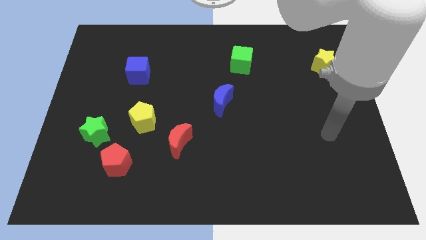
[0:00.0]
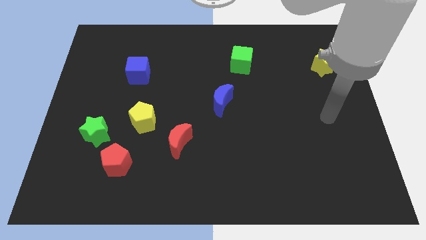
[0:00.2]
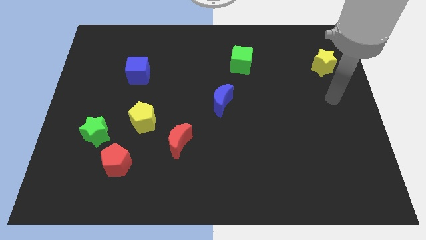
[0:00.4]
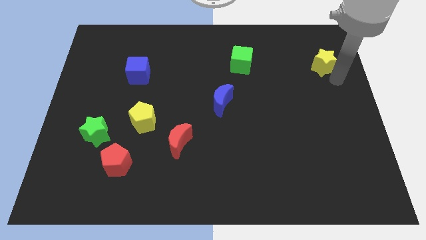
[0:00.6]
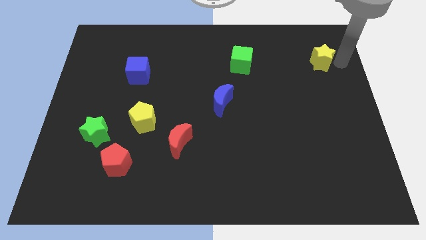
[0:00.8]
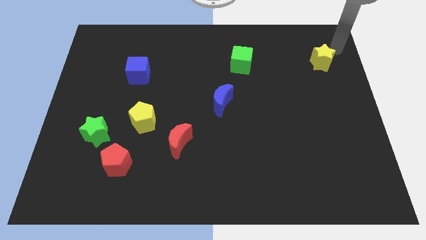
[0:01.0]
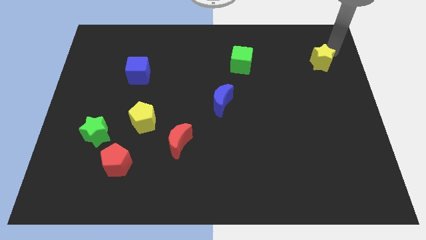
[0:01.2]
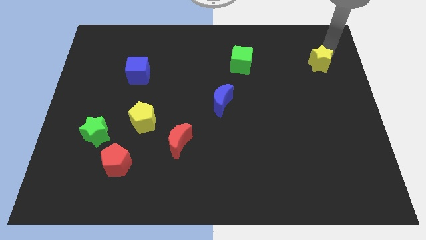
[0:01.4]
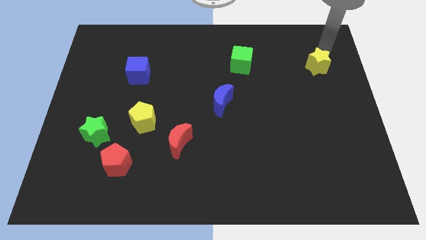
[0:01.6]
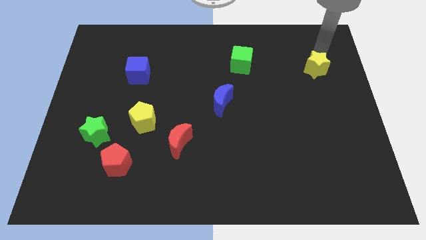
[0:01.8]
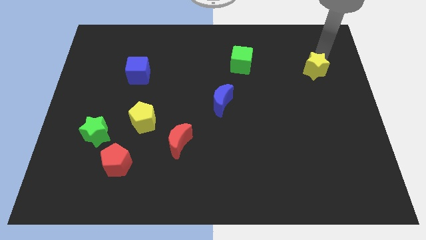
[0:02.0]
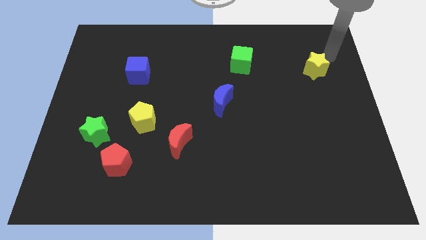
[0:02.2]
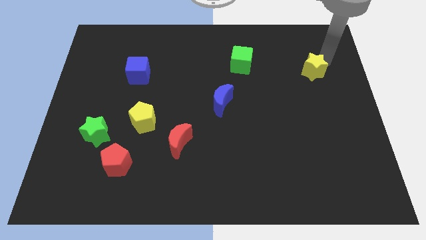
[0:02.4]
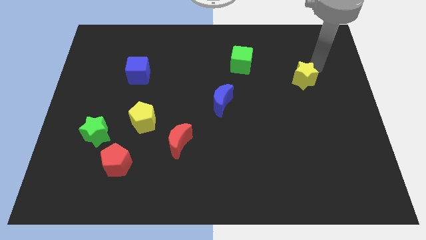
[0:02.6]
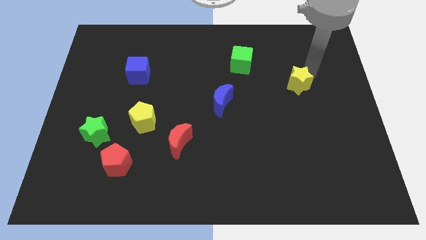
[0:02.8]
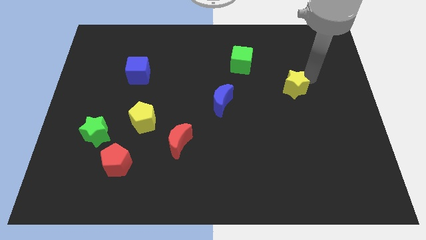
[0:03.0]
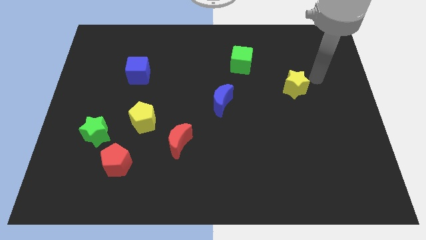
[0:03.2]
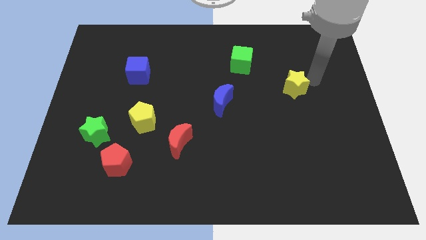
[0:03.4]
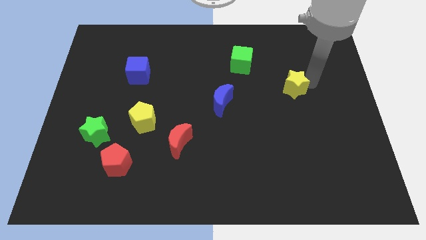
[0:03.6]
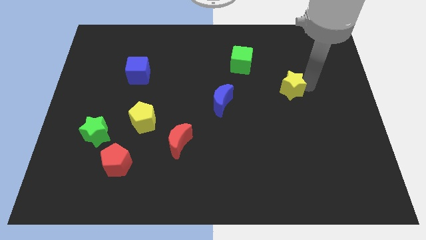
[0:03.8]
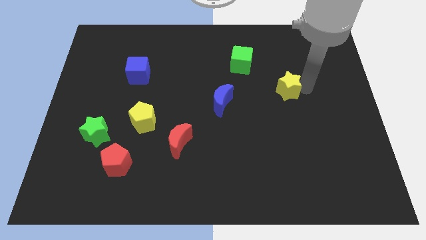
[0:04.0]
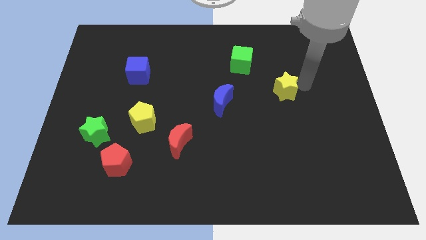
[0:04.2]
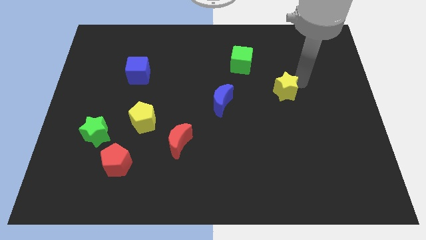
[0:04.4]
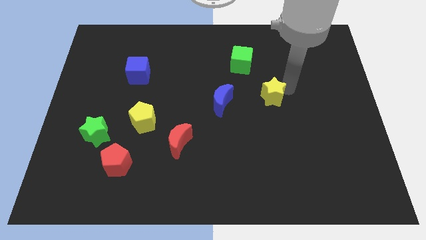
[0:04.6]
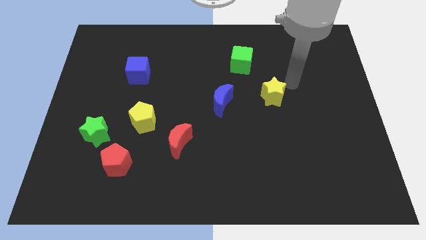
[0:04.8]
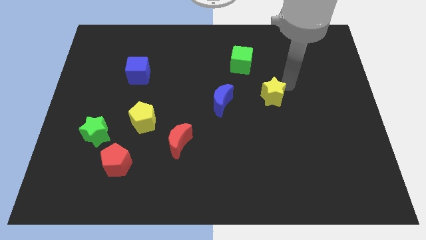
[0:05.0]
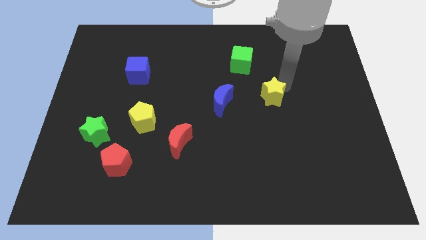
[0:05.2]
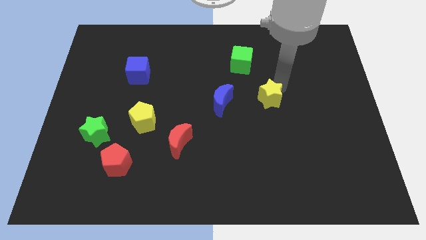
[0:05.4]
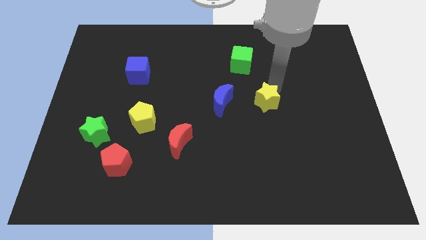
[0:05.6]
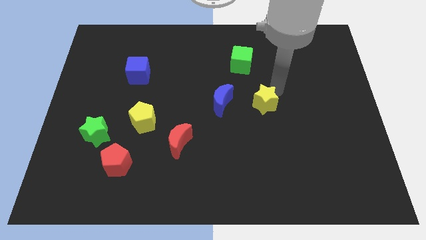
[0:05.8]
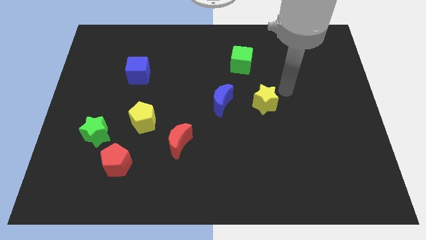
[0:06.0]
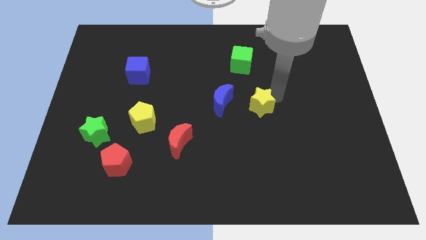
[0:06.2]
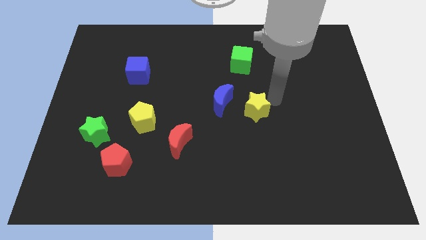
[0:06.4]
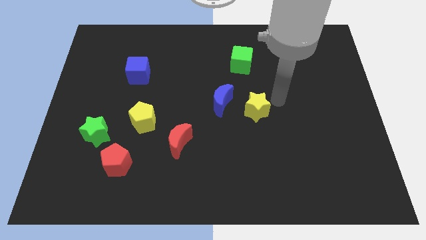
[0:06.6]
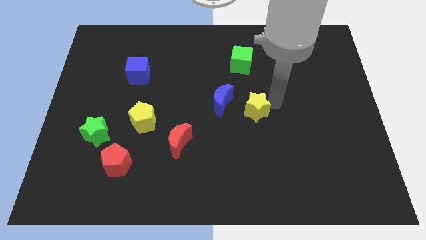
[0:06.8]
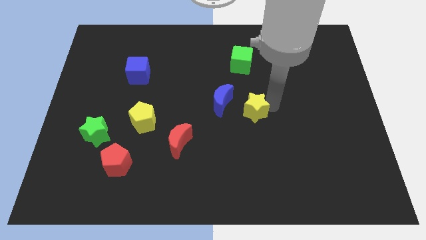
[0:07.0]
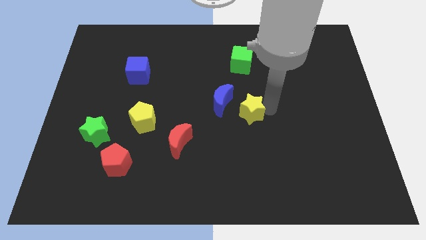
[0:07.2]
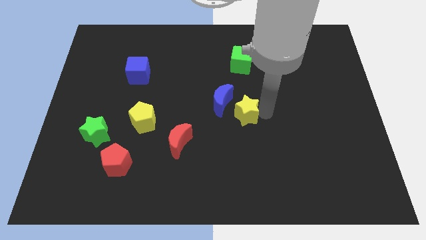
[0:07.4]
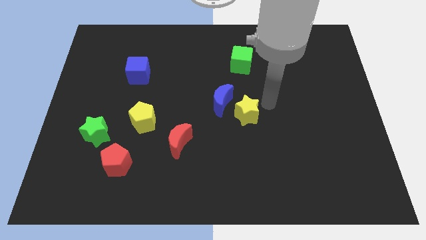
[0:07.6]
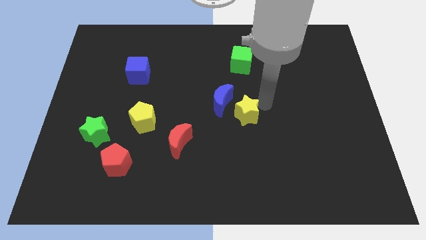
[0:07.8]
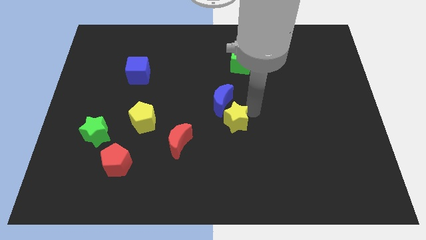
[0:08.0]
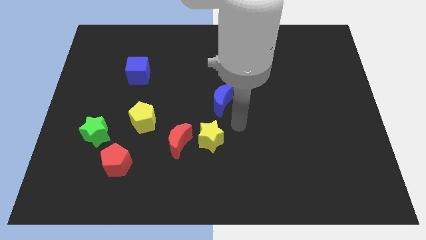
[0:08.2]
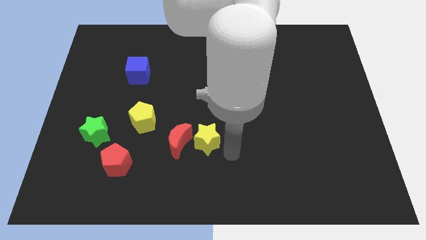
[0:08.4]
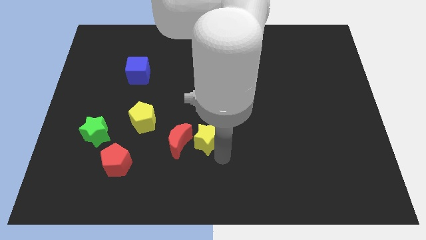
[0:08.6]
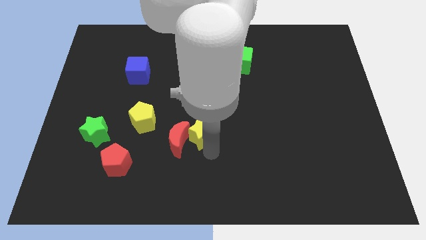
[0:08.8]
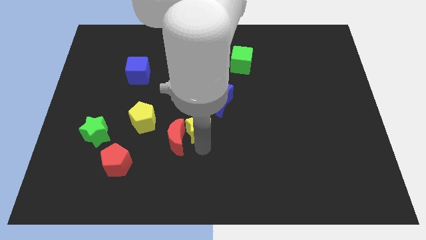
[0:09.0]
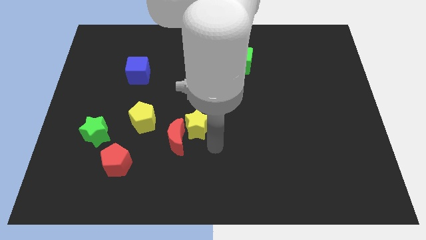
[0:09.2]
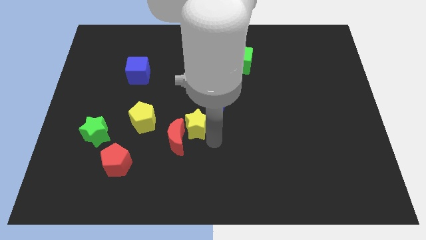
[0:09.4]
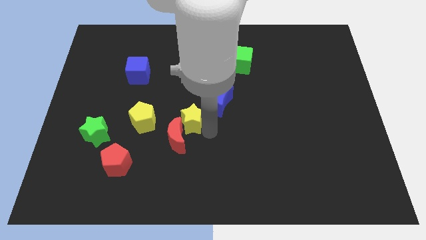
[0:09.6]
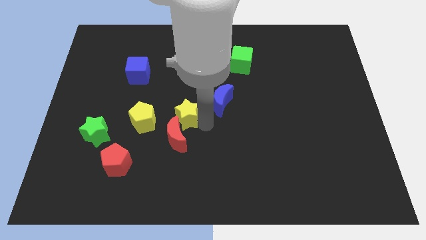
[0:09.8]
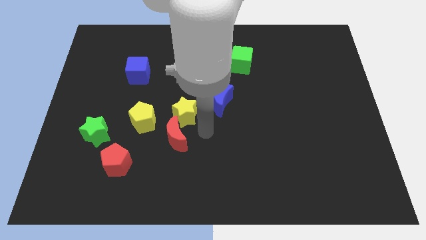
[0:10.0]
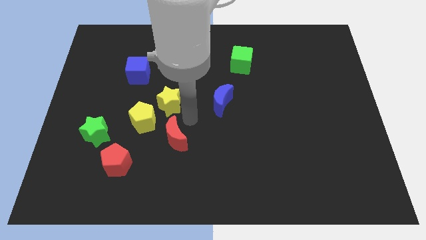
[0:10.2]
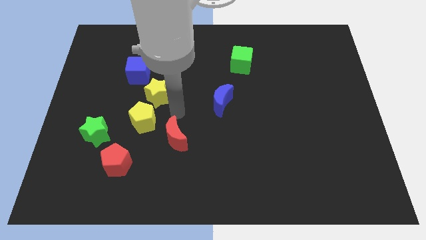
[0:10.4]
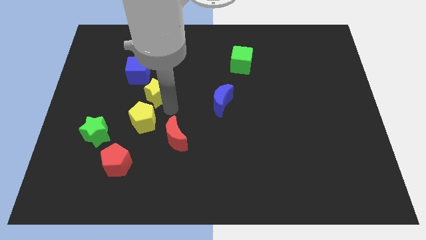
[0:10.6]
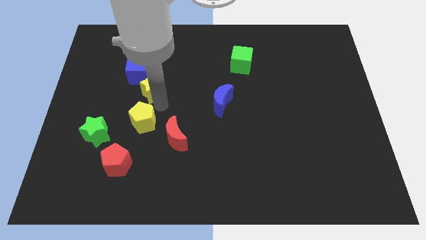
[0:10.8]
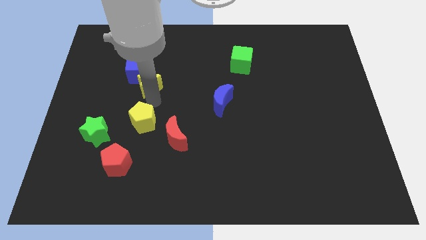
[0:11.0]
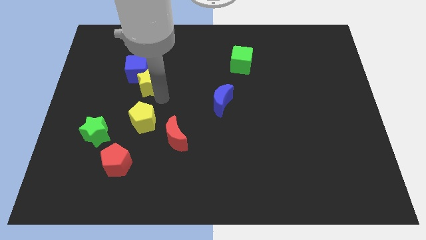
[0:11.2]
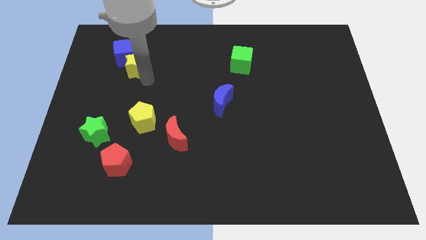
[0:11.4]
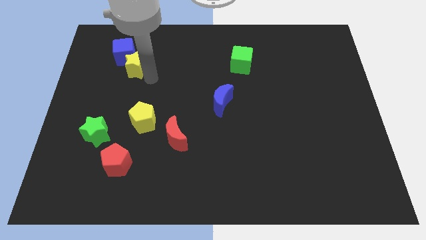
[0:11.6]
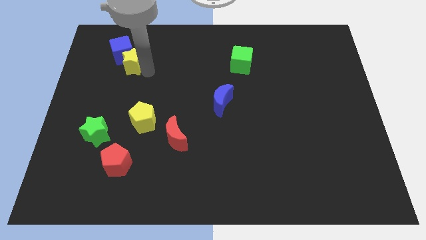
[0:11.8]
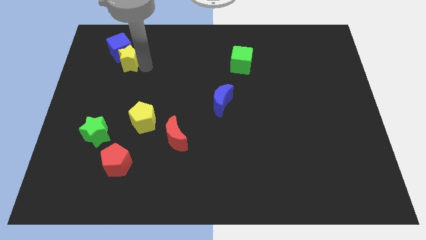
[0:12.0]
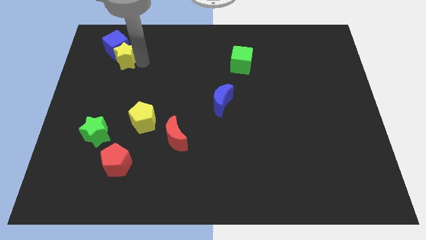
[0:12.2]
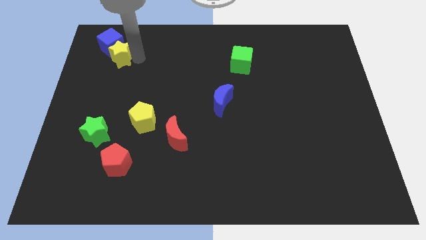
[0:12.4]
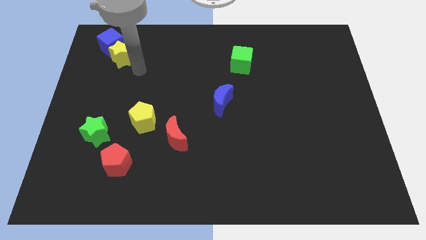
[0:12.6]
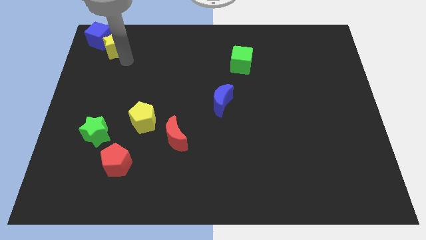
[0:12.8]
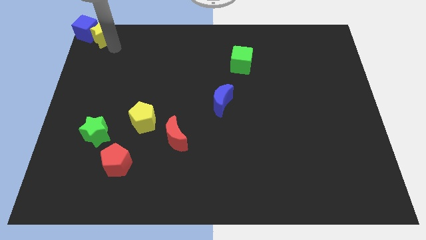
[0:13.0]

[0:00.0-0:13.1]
slide the yellow star to the top left corner
